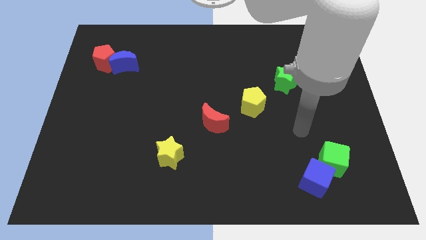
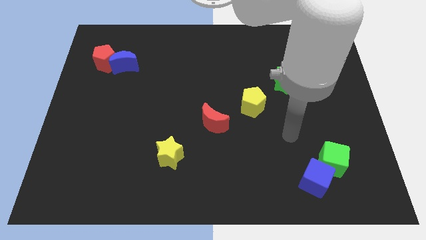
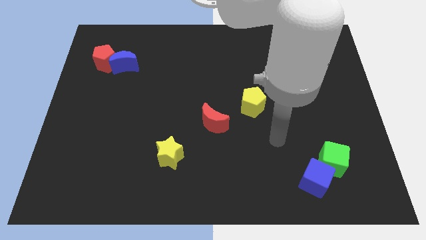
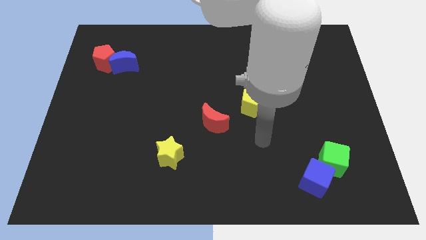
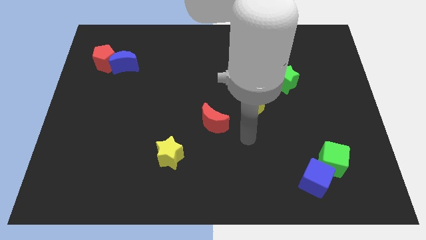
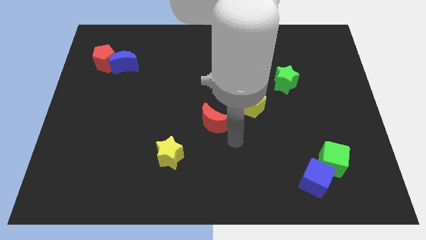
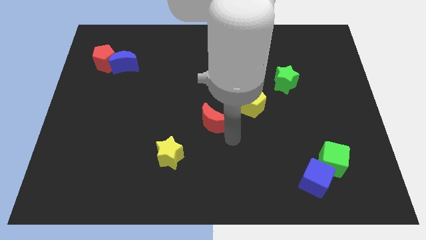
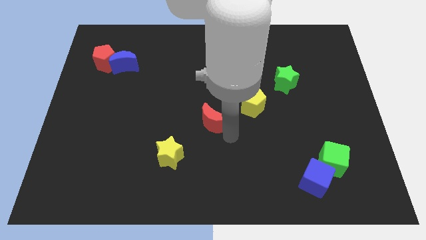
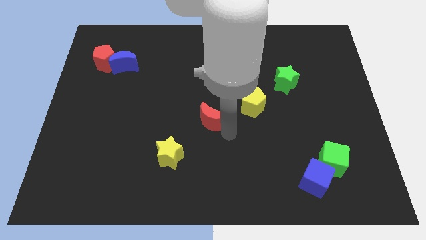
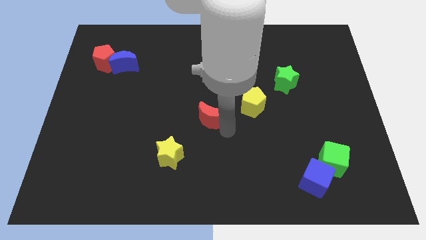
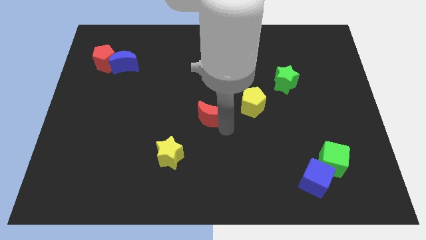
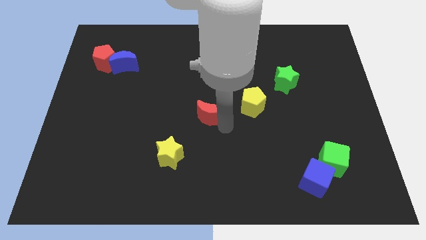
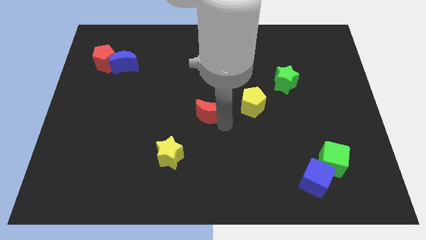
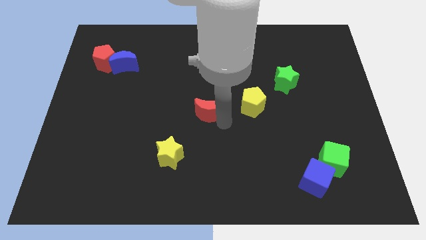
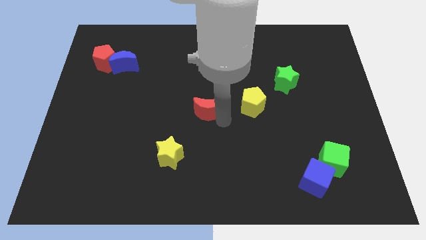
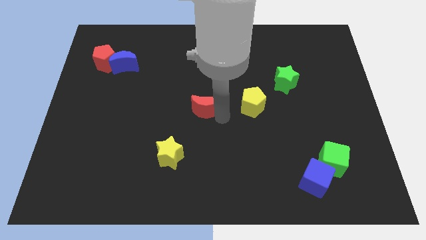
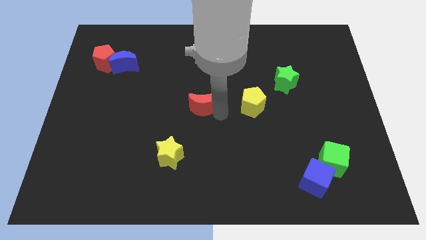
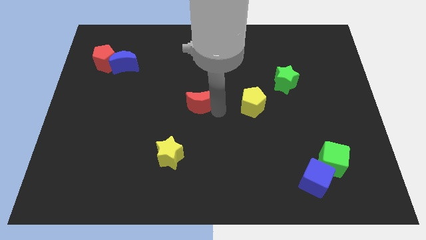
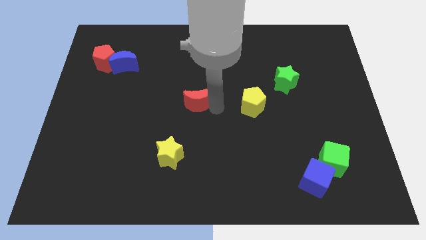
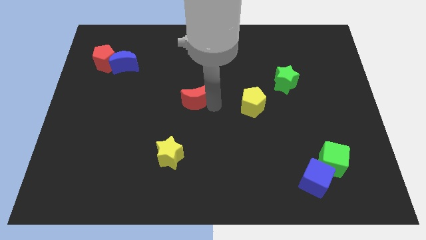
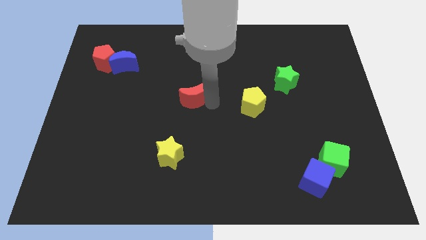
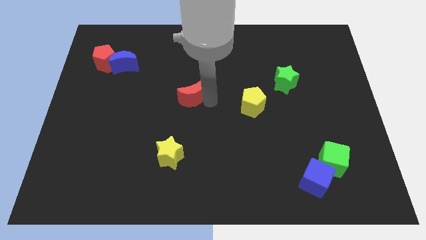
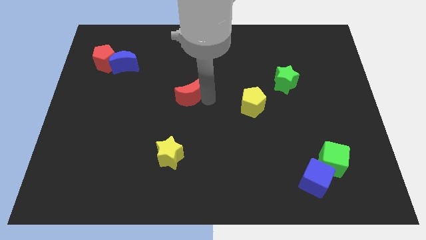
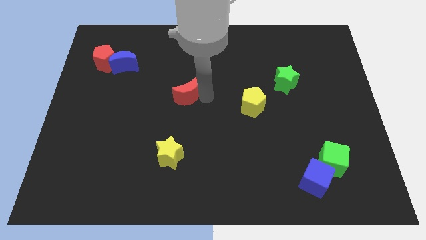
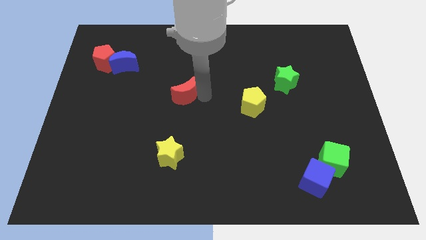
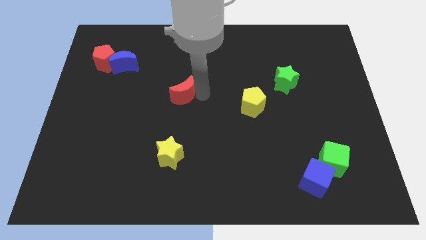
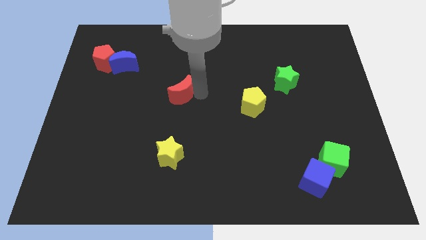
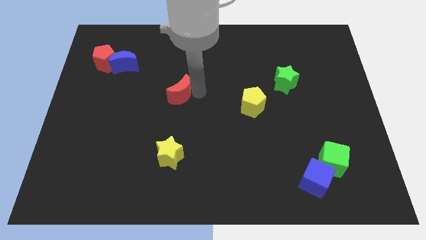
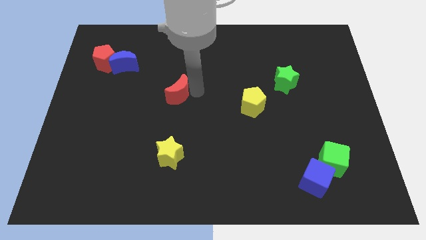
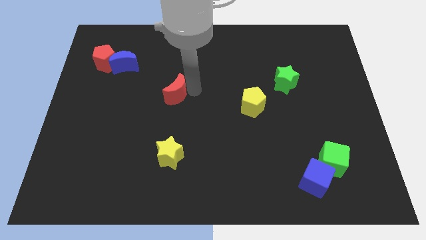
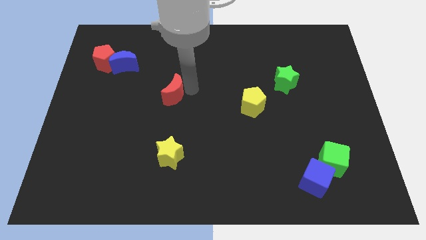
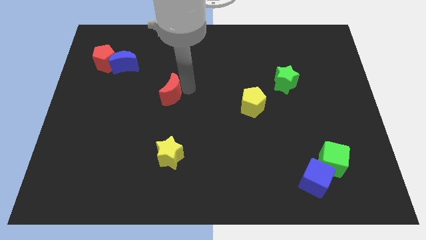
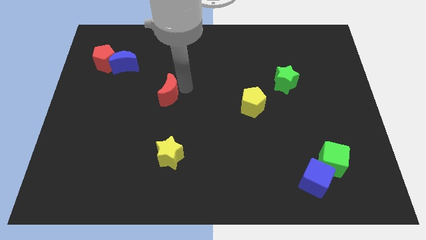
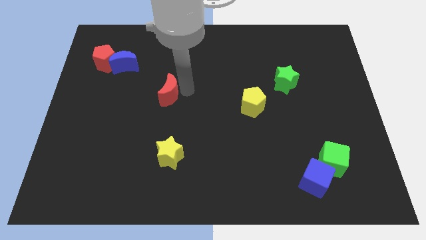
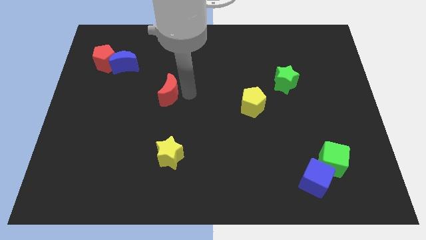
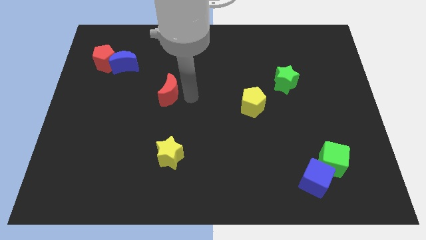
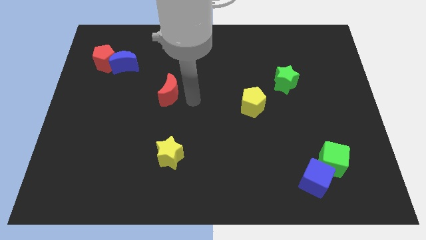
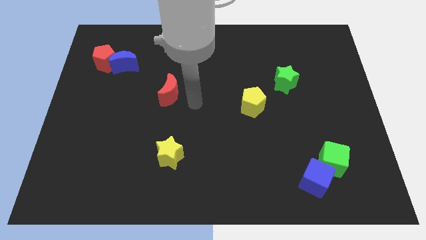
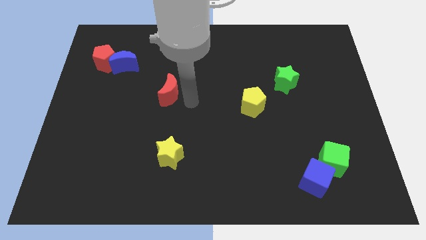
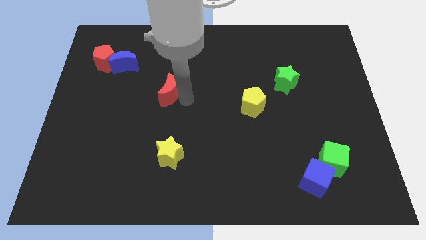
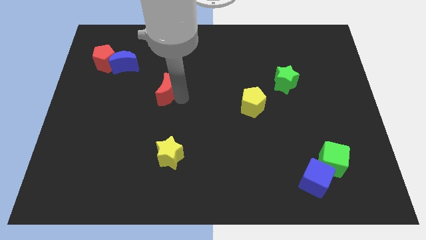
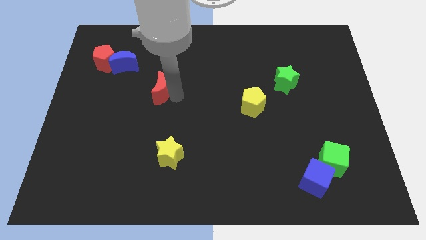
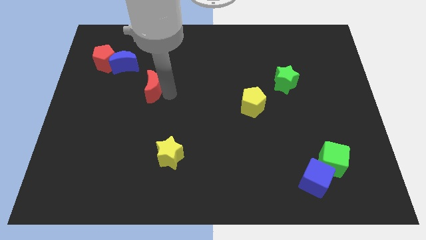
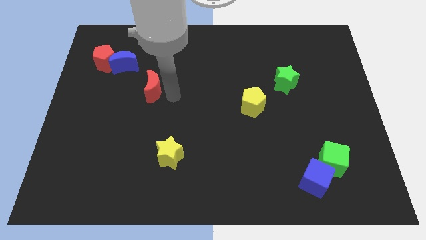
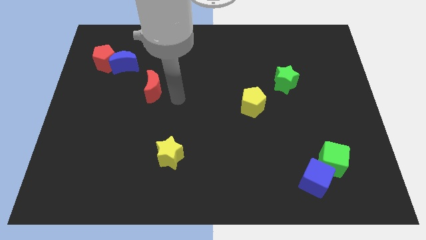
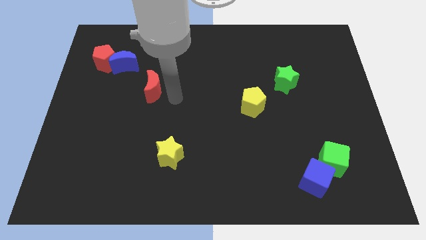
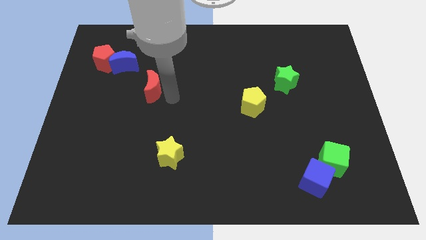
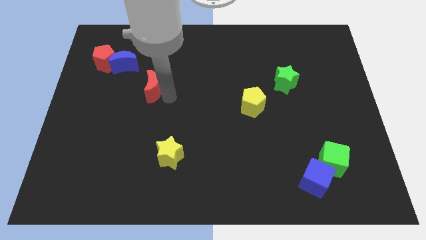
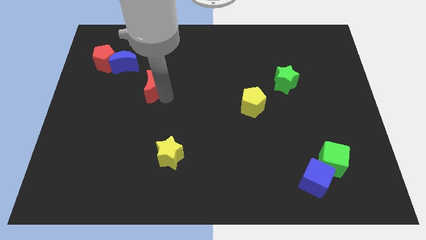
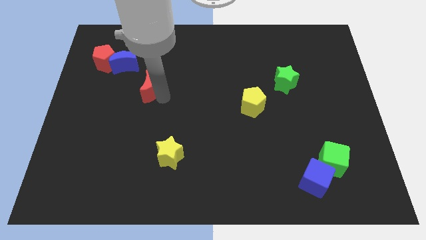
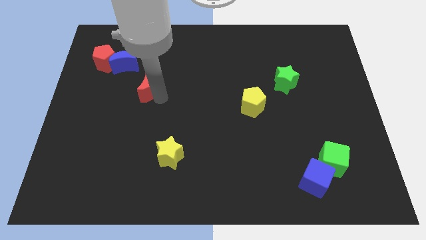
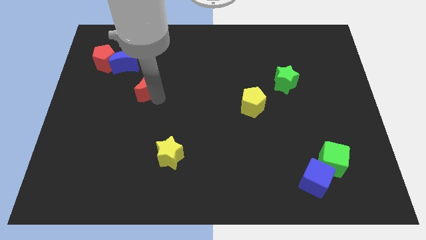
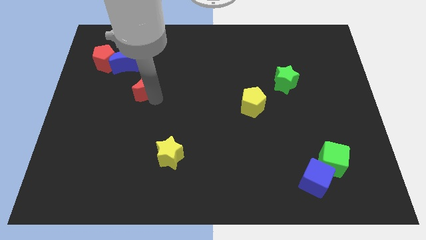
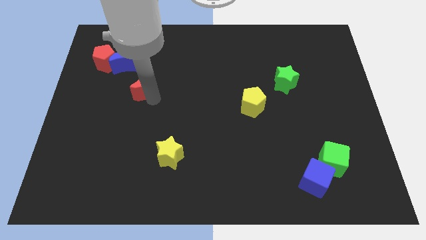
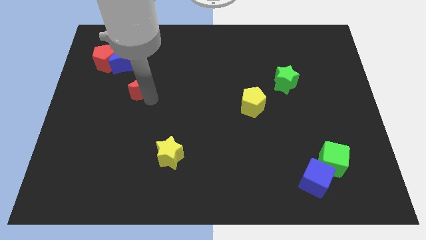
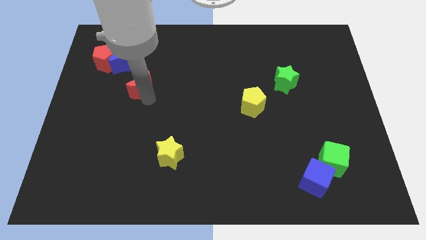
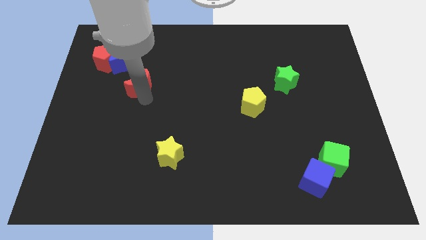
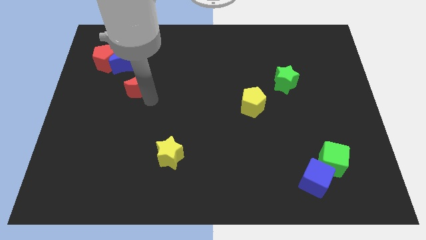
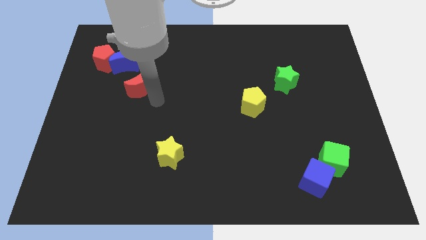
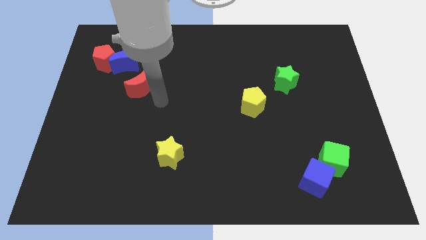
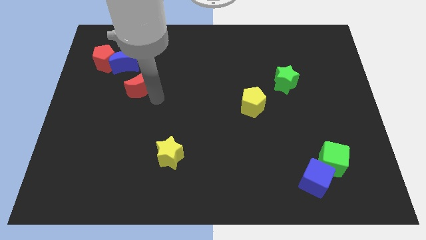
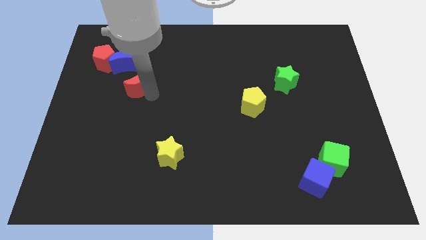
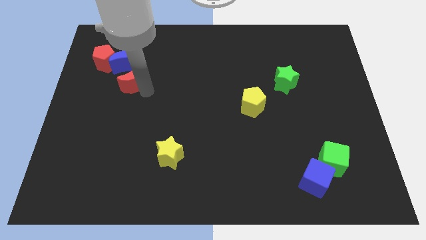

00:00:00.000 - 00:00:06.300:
move the red moon to the bottom right side of the red pentagon

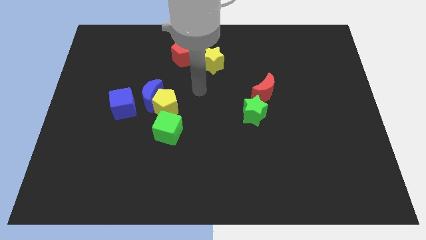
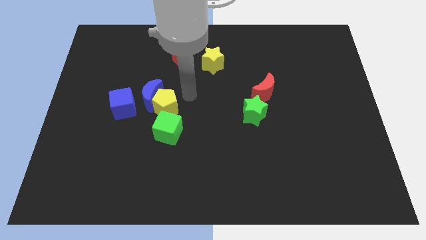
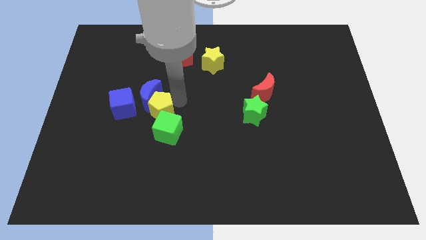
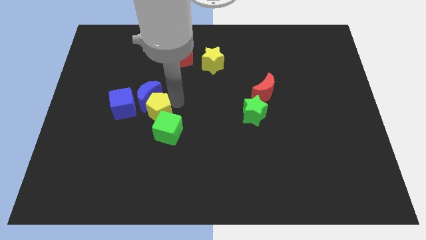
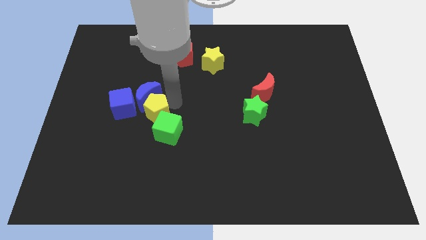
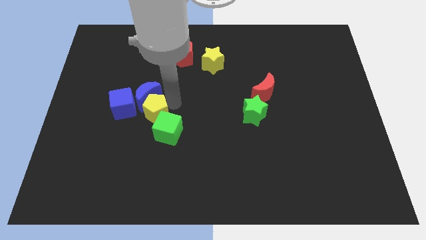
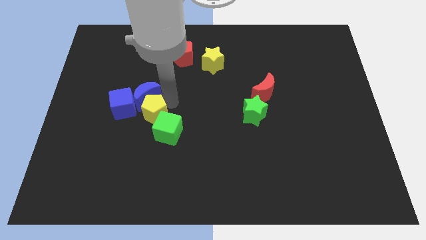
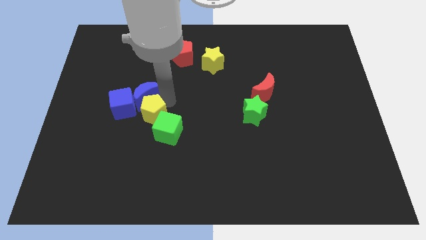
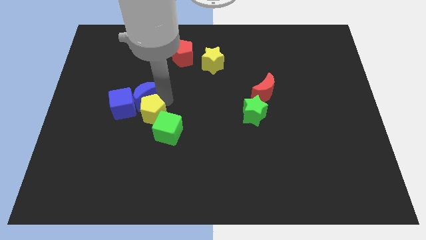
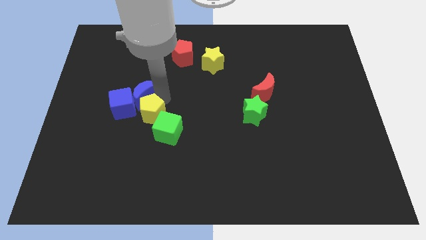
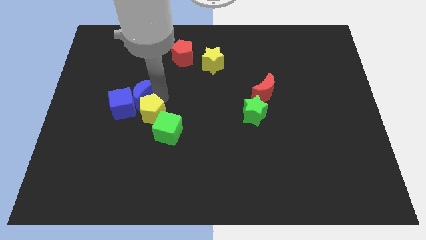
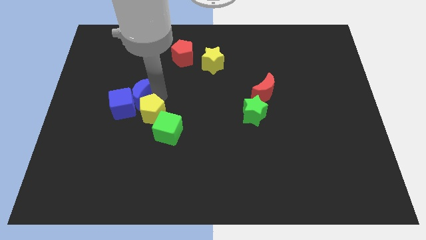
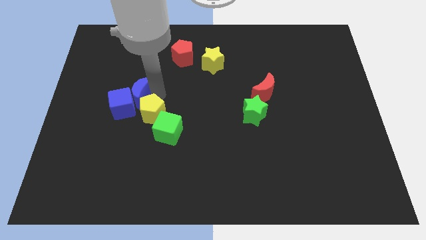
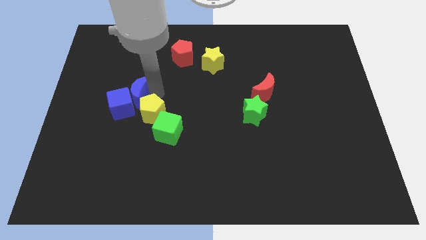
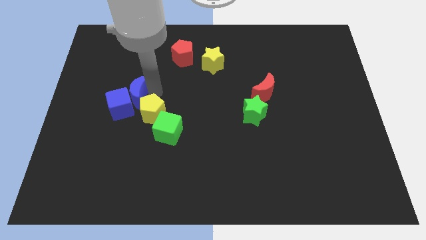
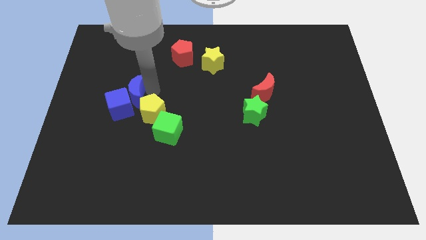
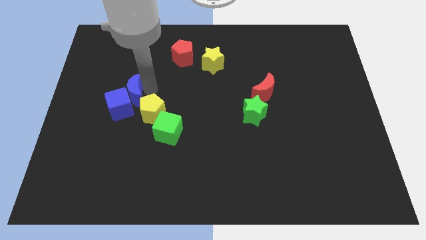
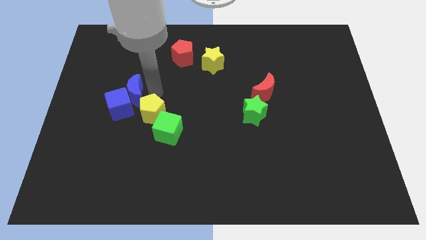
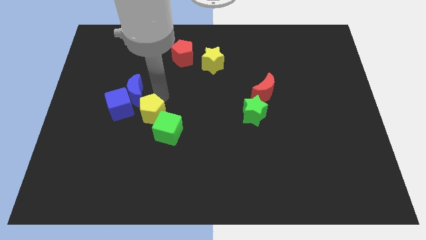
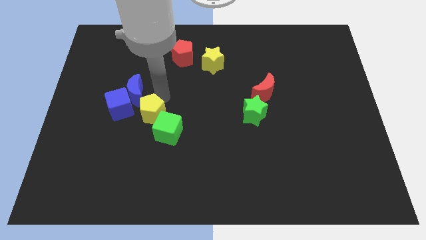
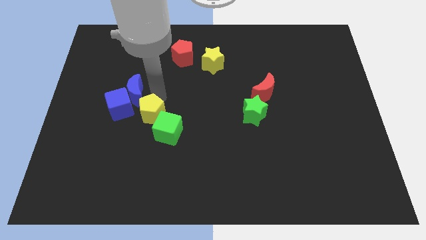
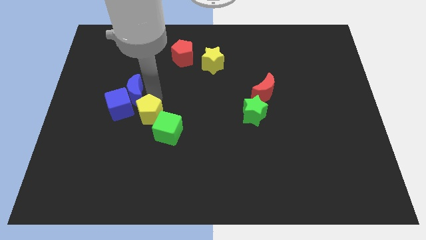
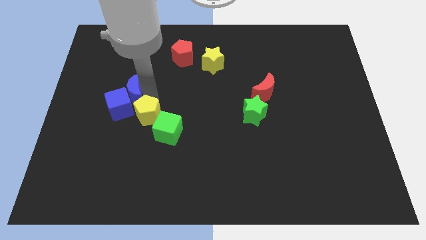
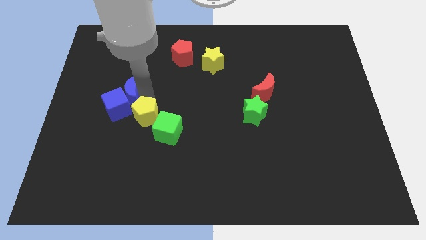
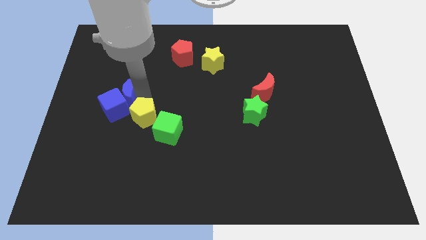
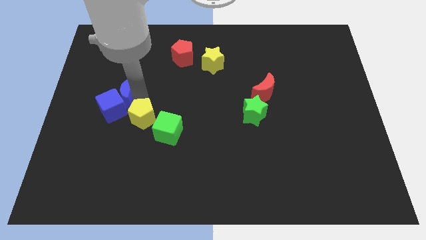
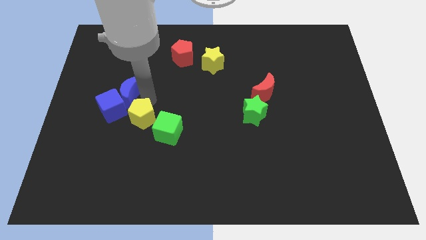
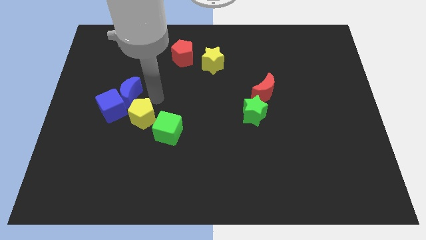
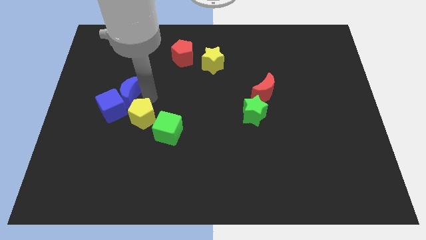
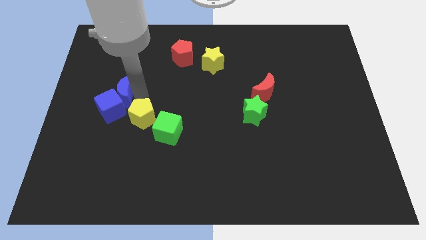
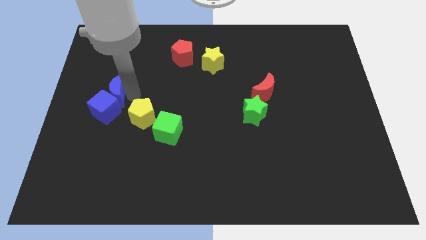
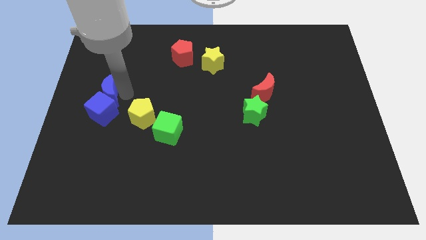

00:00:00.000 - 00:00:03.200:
put the blue moon diagonally up and to the left of the blue cube
